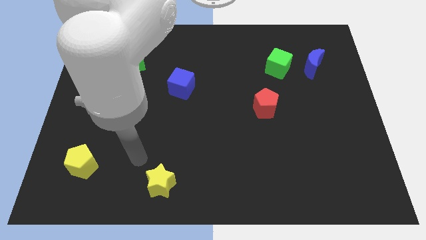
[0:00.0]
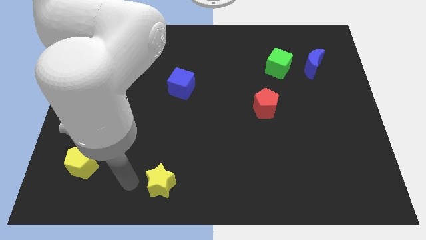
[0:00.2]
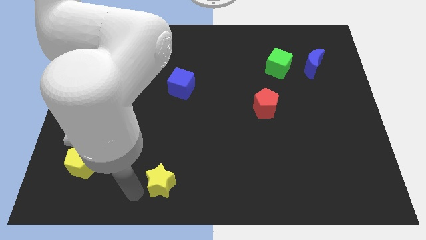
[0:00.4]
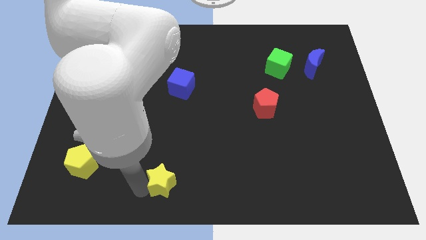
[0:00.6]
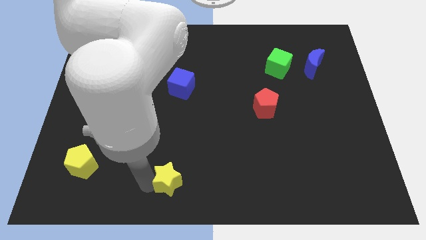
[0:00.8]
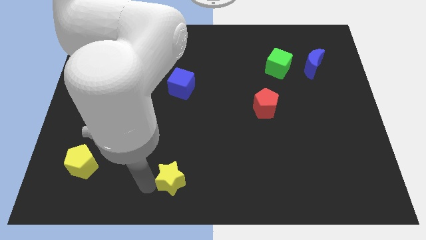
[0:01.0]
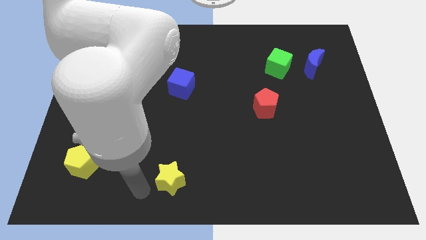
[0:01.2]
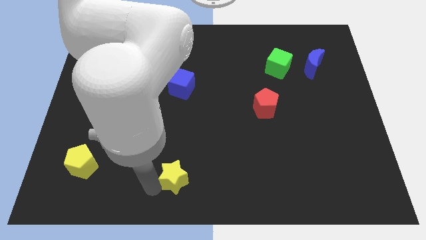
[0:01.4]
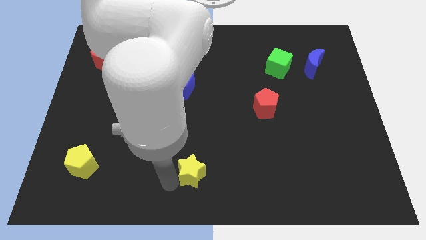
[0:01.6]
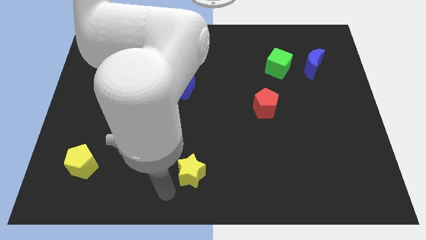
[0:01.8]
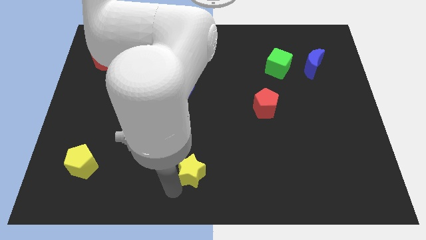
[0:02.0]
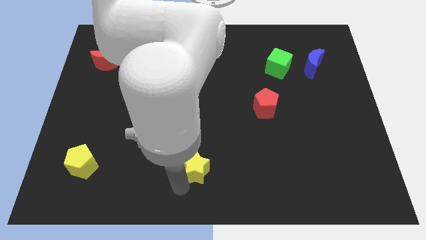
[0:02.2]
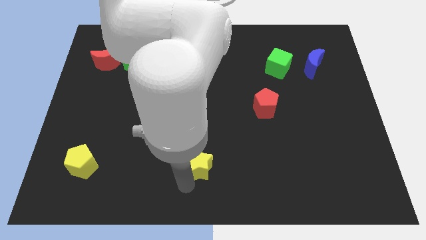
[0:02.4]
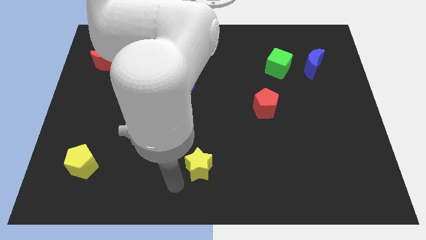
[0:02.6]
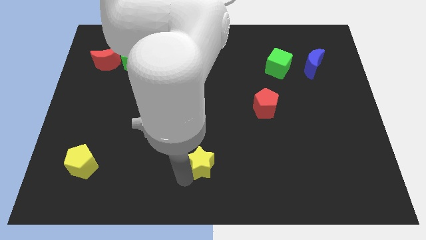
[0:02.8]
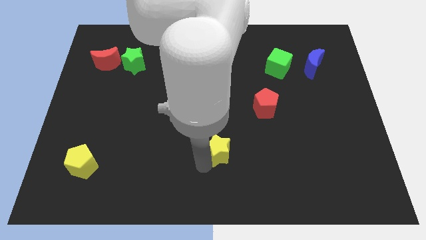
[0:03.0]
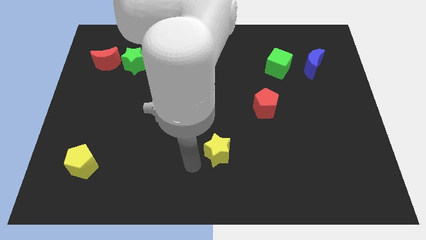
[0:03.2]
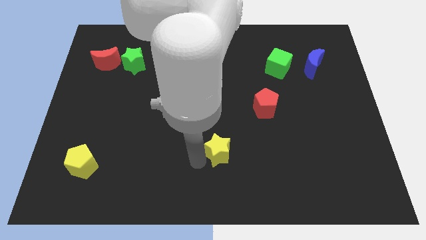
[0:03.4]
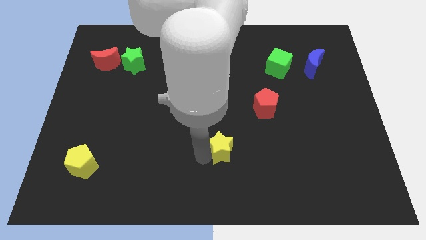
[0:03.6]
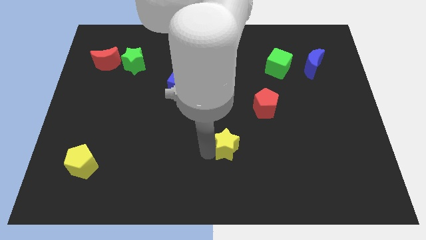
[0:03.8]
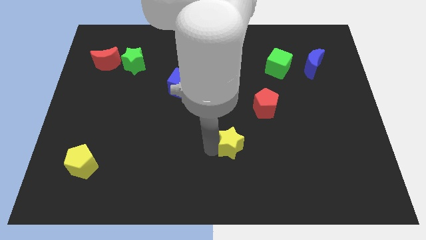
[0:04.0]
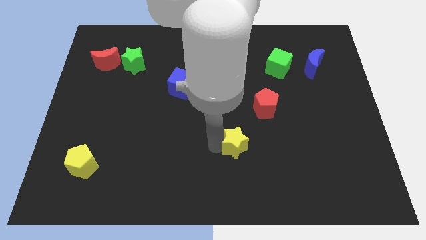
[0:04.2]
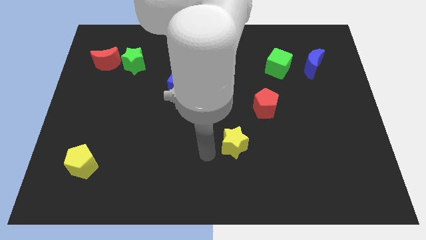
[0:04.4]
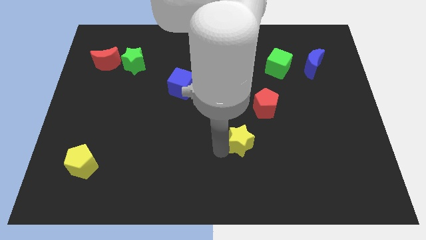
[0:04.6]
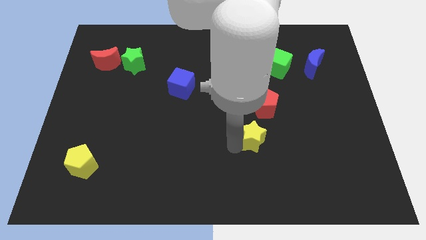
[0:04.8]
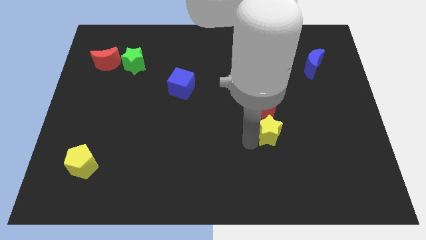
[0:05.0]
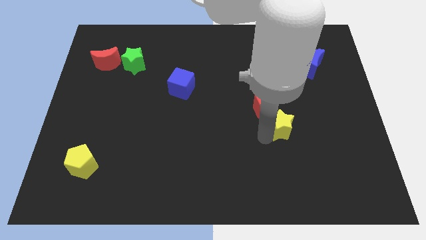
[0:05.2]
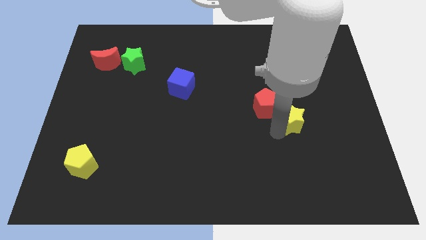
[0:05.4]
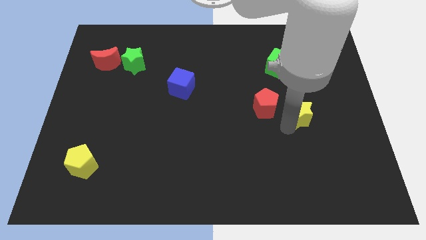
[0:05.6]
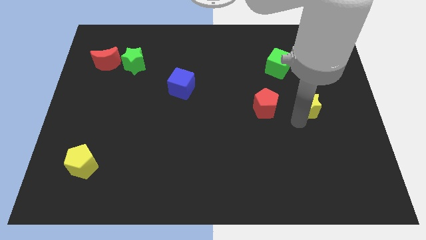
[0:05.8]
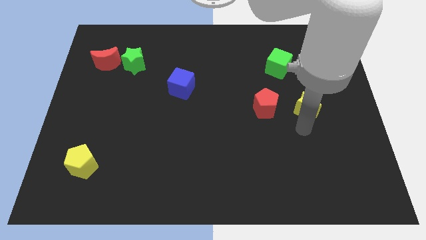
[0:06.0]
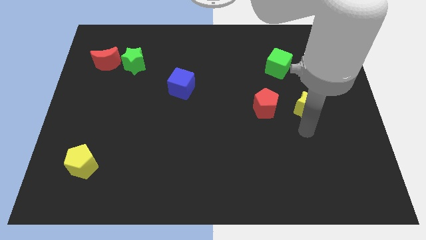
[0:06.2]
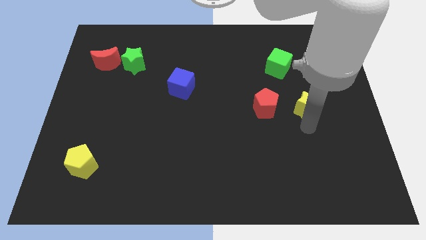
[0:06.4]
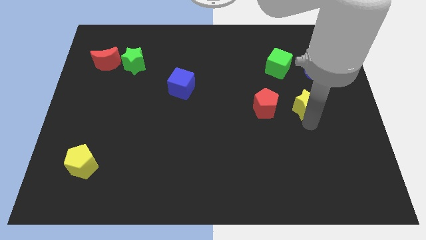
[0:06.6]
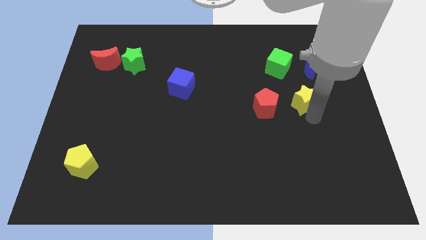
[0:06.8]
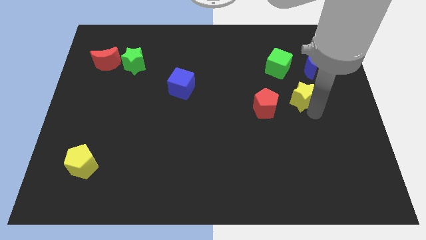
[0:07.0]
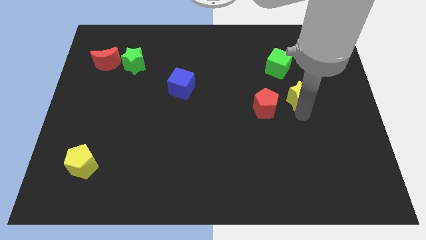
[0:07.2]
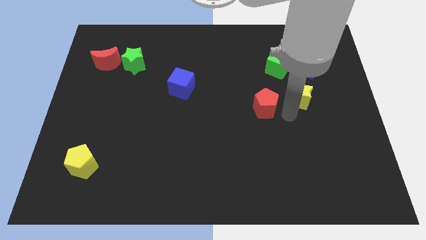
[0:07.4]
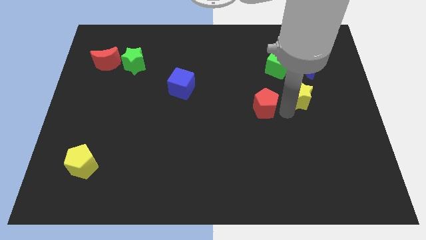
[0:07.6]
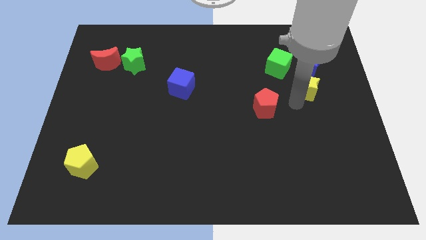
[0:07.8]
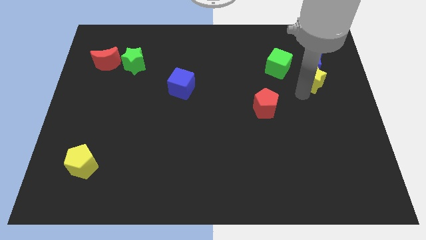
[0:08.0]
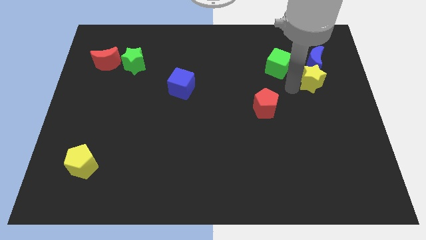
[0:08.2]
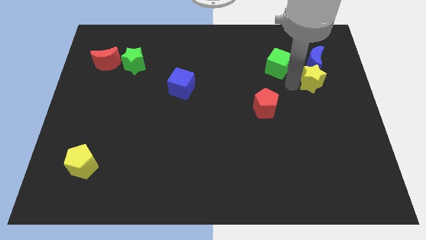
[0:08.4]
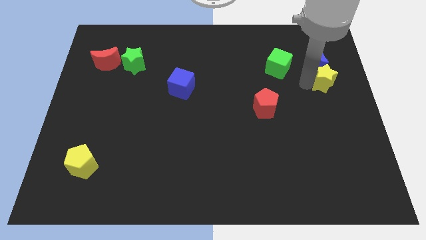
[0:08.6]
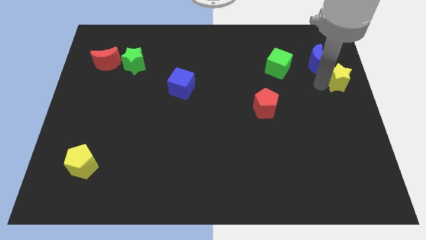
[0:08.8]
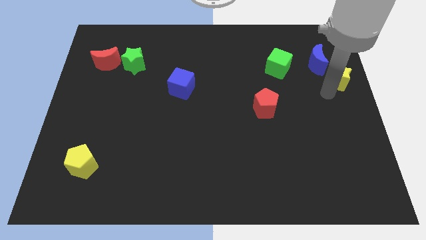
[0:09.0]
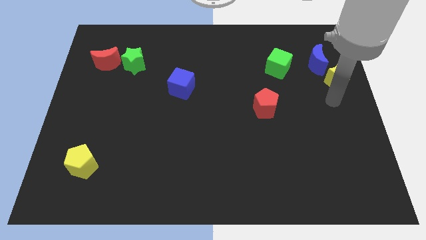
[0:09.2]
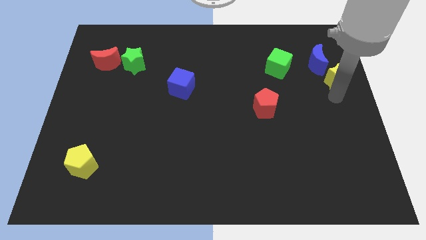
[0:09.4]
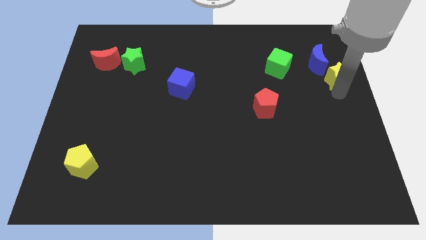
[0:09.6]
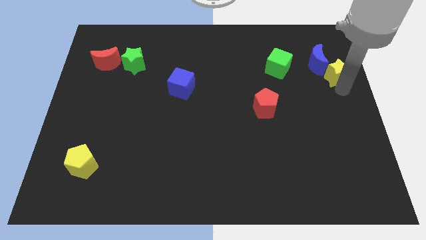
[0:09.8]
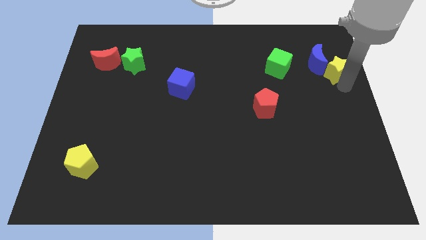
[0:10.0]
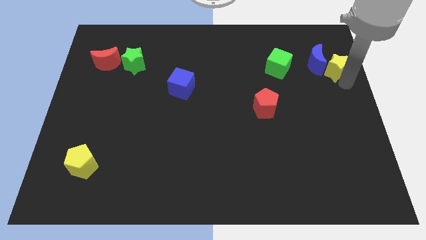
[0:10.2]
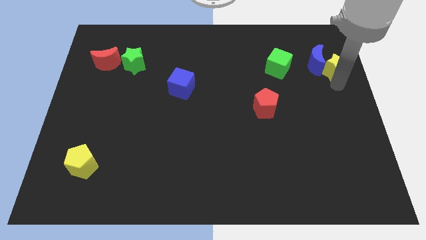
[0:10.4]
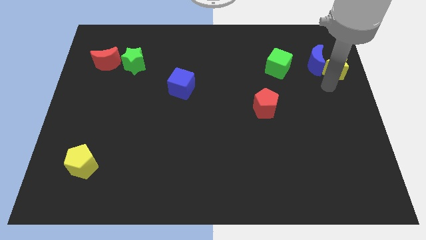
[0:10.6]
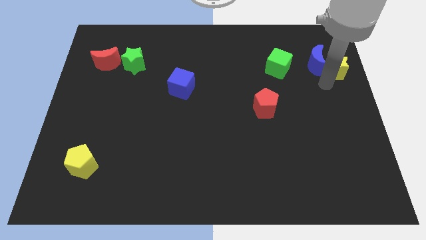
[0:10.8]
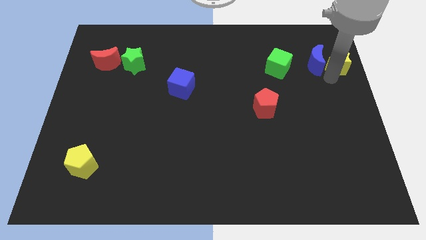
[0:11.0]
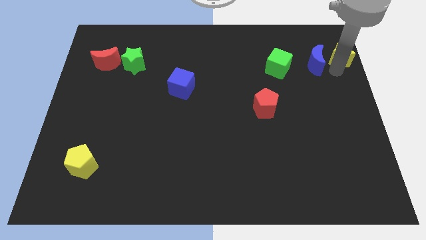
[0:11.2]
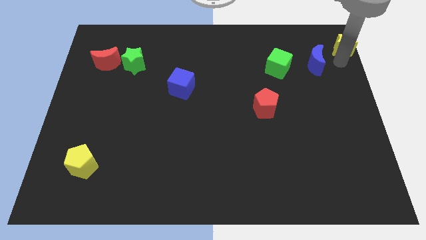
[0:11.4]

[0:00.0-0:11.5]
move the yellow star to the top right

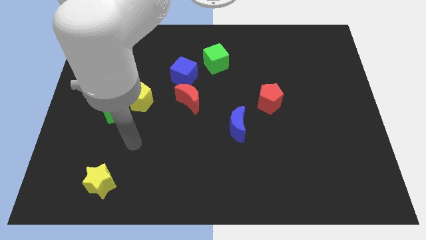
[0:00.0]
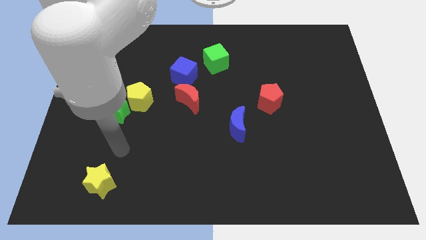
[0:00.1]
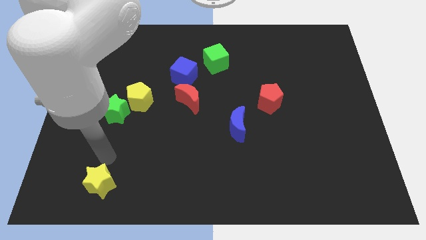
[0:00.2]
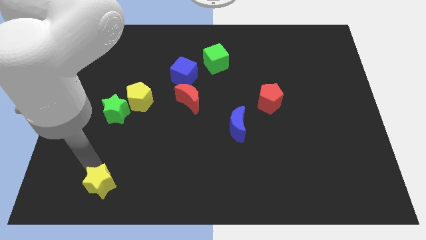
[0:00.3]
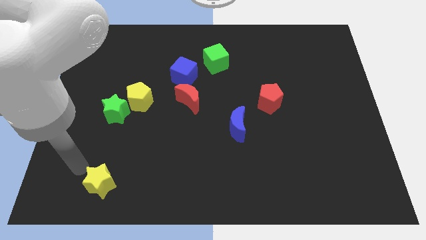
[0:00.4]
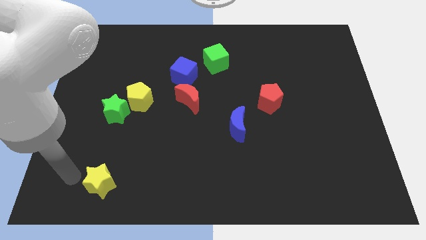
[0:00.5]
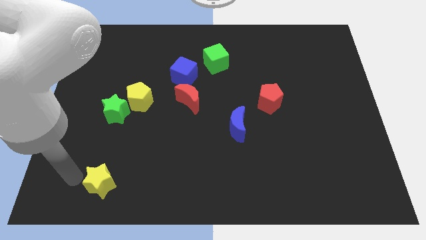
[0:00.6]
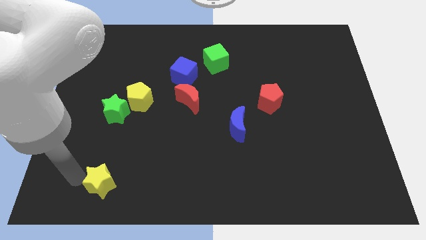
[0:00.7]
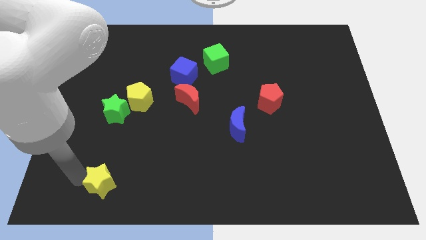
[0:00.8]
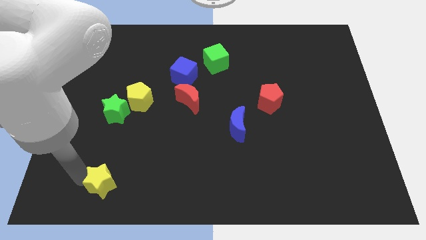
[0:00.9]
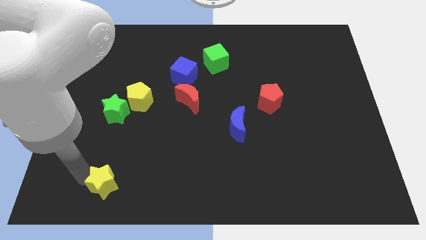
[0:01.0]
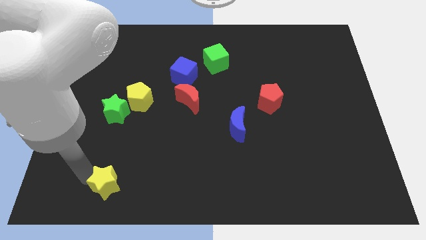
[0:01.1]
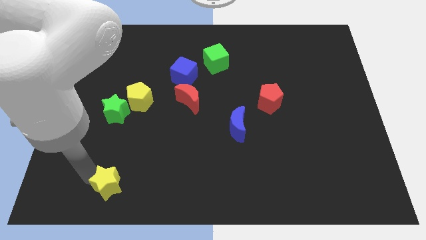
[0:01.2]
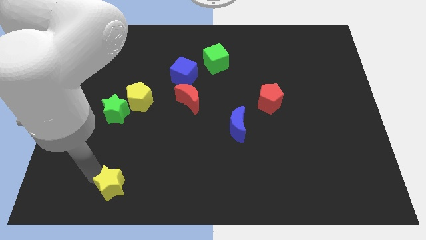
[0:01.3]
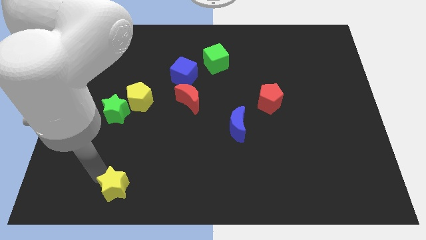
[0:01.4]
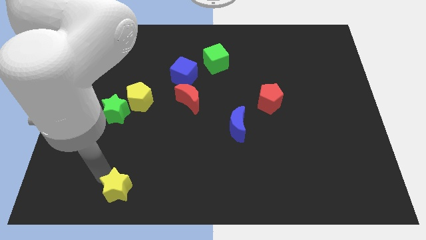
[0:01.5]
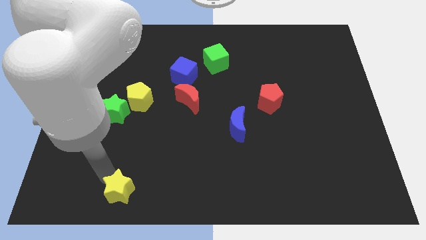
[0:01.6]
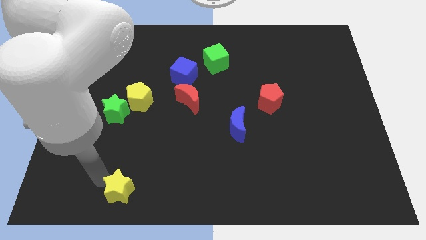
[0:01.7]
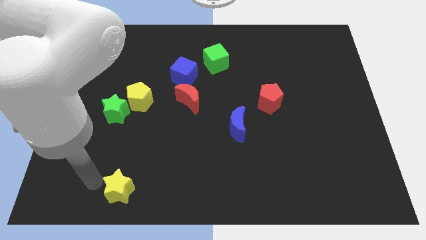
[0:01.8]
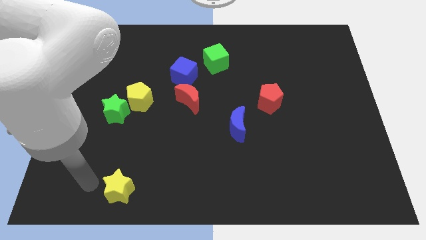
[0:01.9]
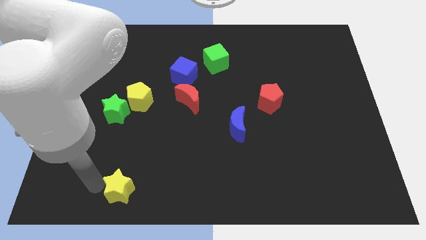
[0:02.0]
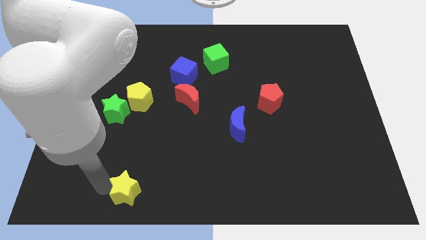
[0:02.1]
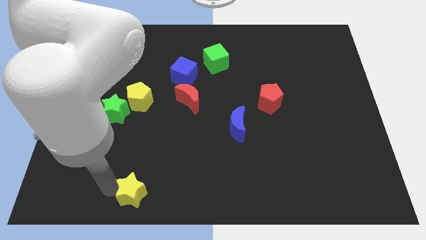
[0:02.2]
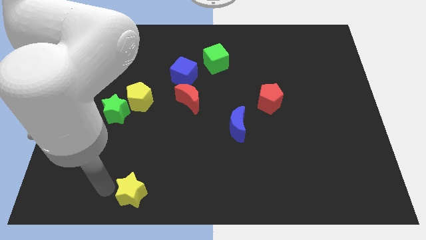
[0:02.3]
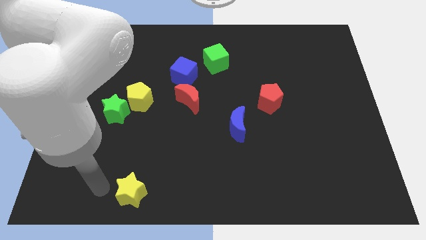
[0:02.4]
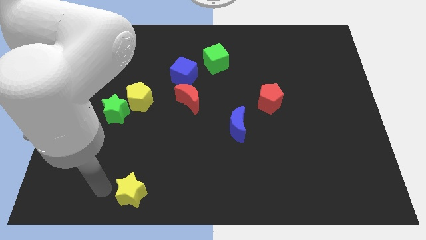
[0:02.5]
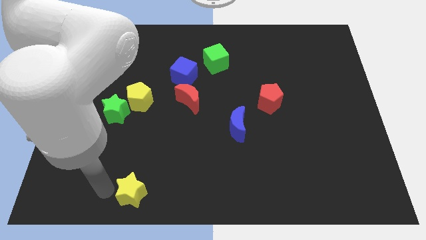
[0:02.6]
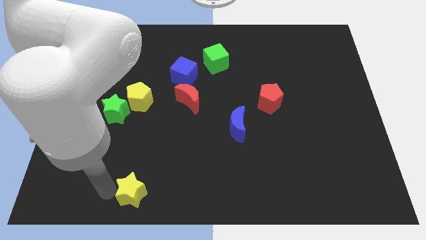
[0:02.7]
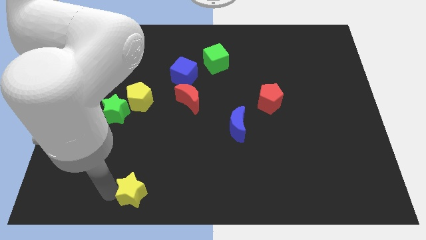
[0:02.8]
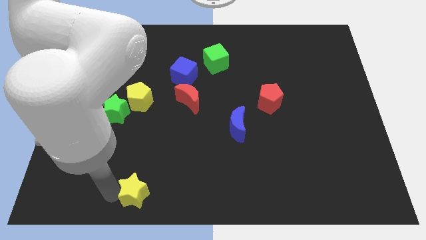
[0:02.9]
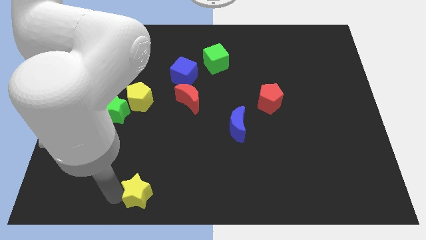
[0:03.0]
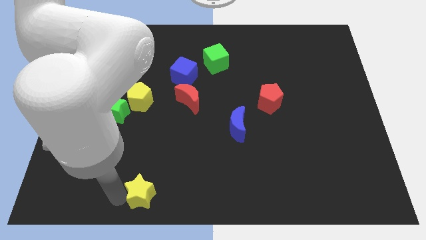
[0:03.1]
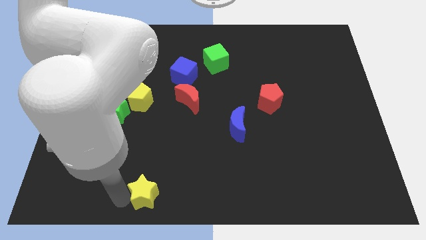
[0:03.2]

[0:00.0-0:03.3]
slide the yellow star to the bottom
